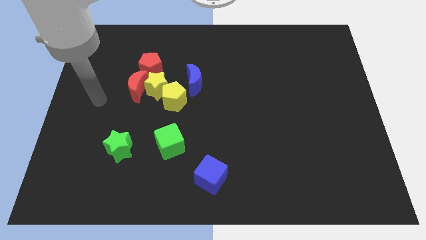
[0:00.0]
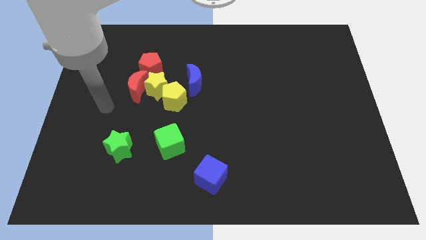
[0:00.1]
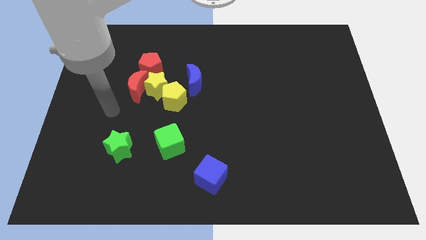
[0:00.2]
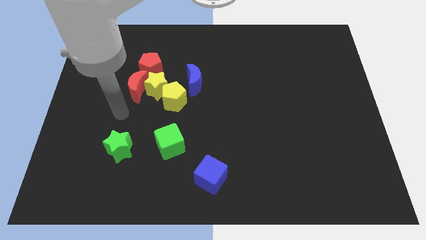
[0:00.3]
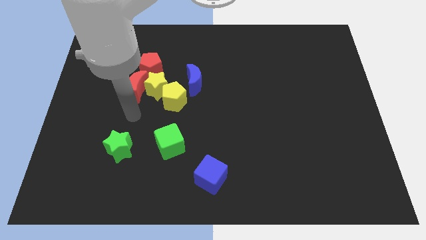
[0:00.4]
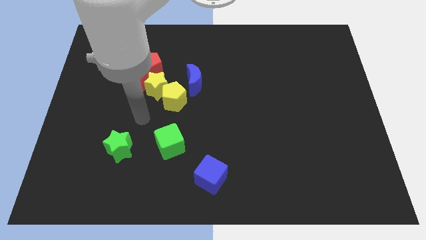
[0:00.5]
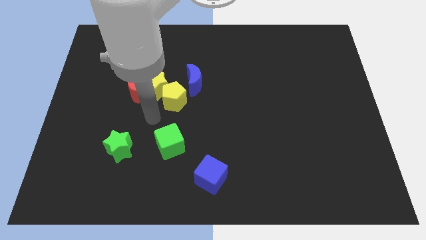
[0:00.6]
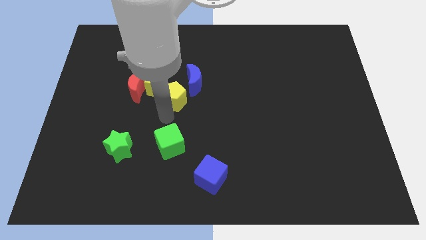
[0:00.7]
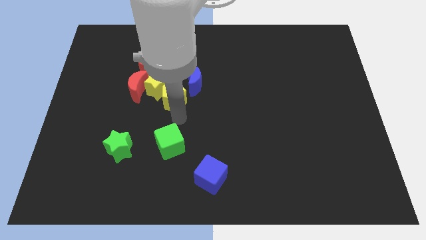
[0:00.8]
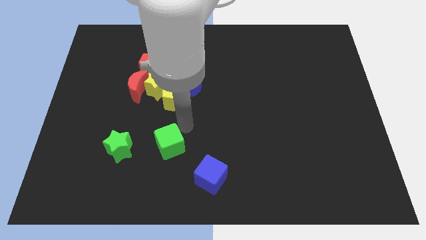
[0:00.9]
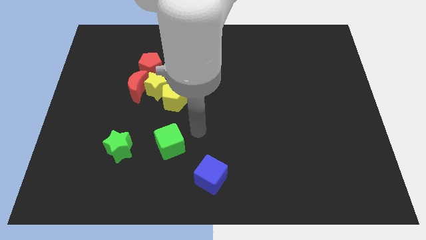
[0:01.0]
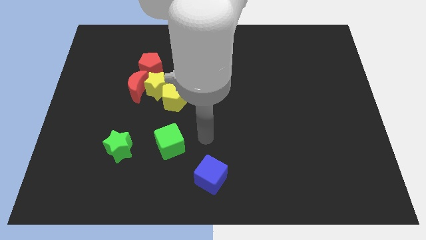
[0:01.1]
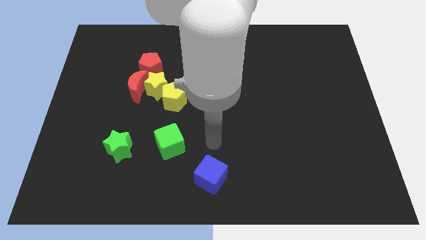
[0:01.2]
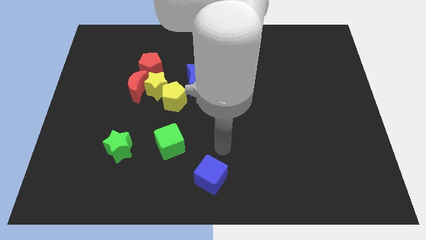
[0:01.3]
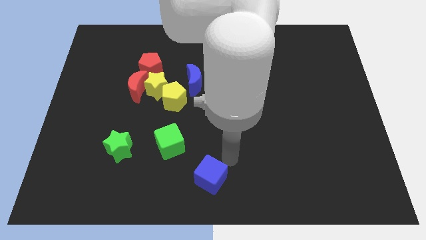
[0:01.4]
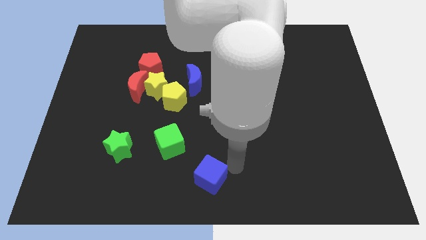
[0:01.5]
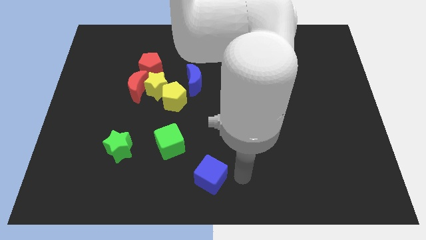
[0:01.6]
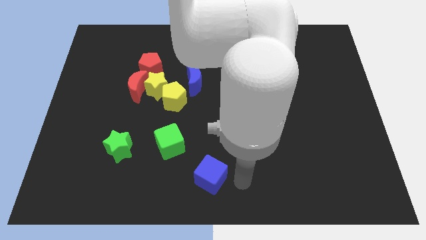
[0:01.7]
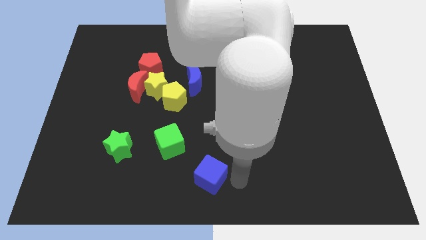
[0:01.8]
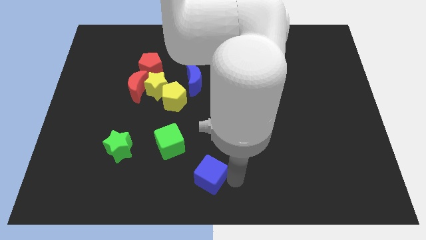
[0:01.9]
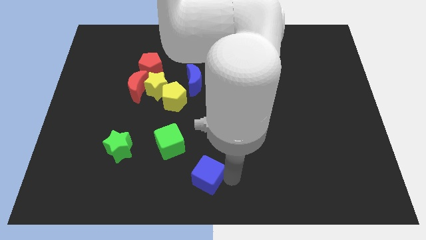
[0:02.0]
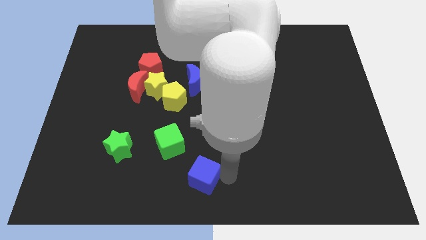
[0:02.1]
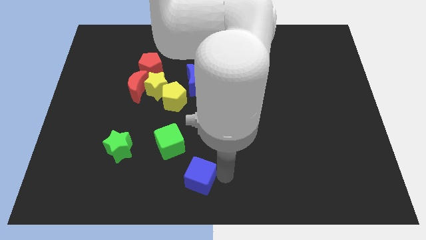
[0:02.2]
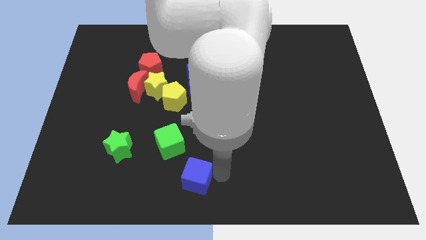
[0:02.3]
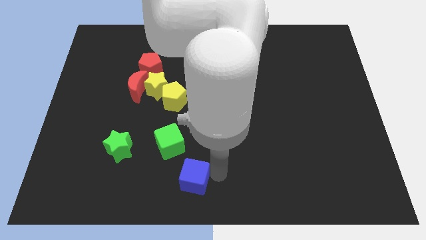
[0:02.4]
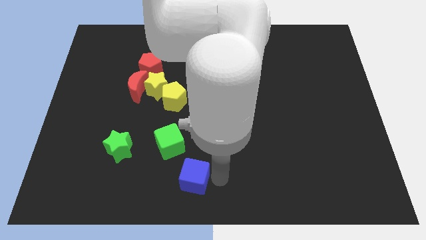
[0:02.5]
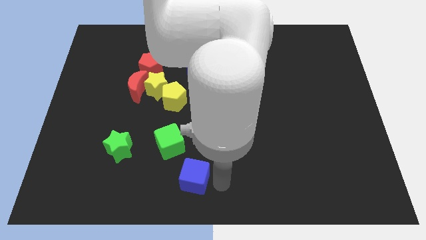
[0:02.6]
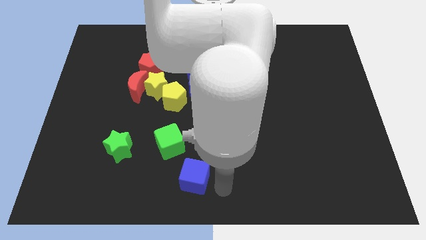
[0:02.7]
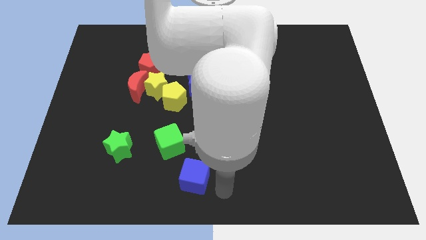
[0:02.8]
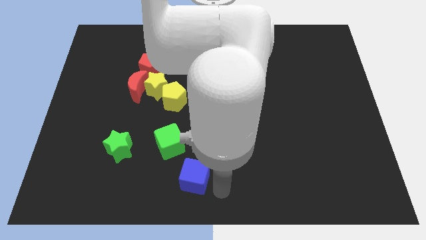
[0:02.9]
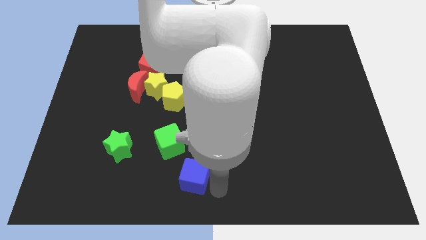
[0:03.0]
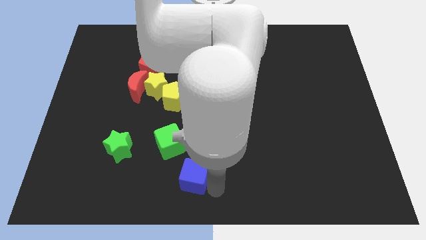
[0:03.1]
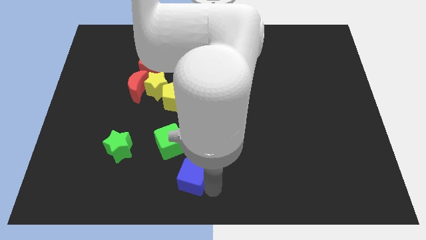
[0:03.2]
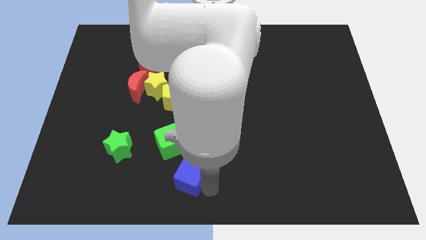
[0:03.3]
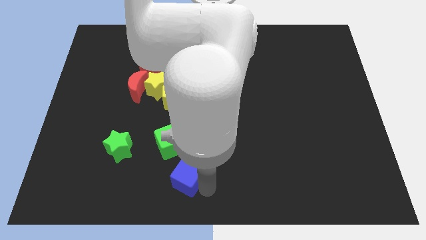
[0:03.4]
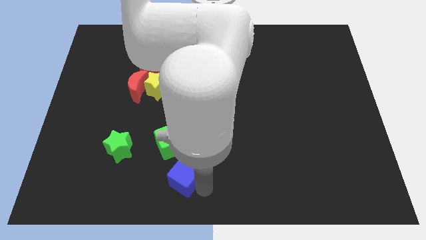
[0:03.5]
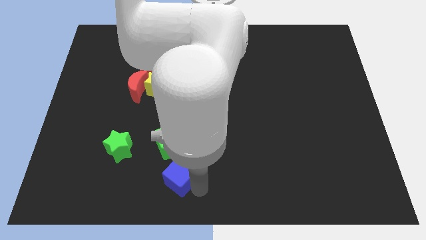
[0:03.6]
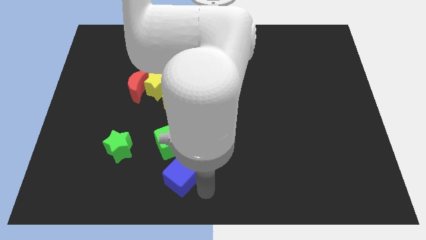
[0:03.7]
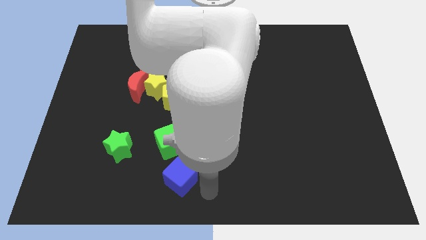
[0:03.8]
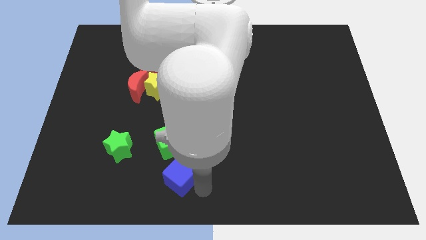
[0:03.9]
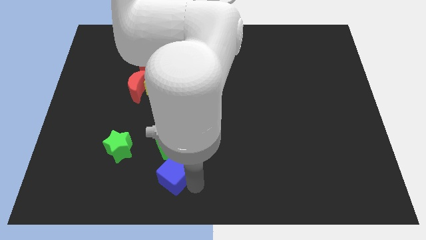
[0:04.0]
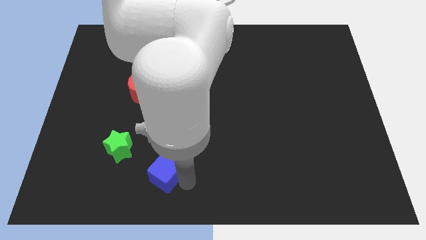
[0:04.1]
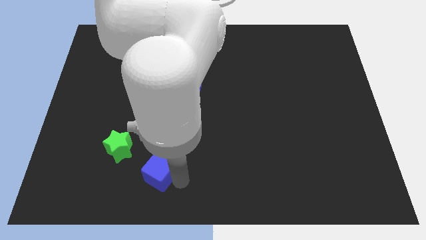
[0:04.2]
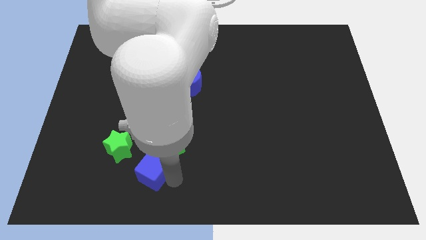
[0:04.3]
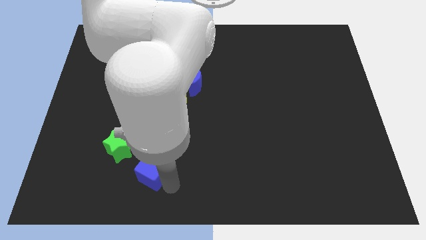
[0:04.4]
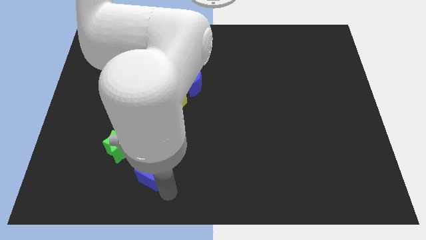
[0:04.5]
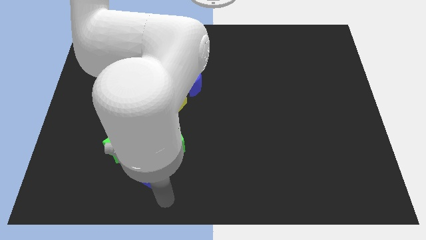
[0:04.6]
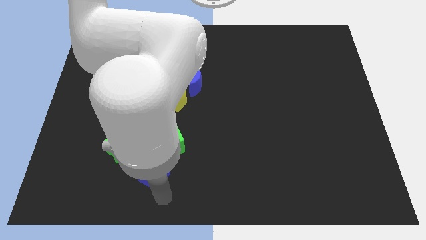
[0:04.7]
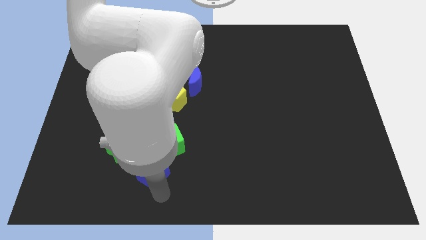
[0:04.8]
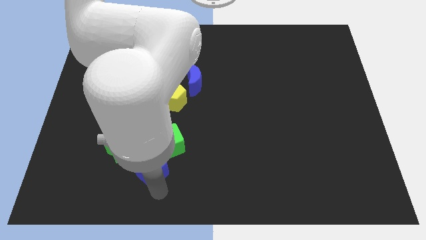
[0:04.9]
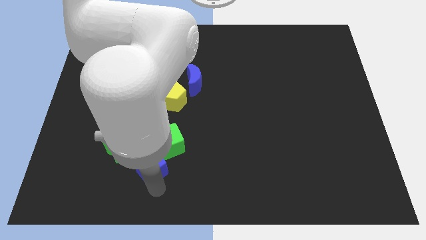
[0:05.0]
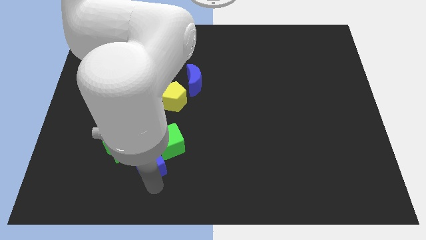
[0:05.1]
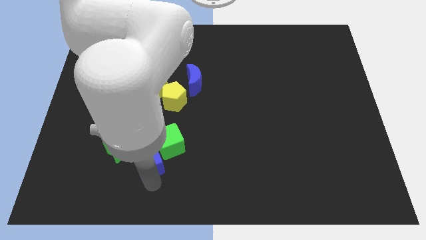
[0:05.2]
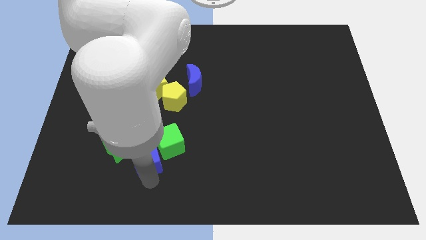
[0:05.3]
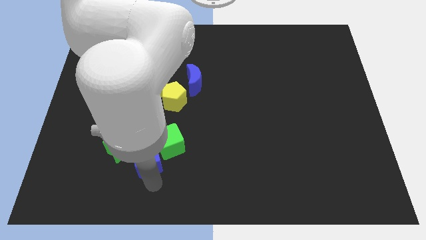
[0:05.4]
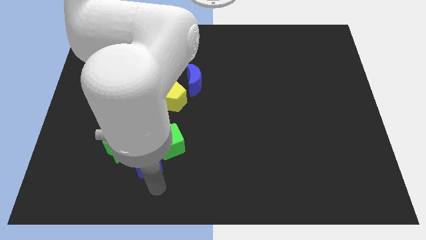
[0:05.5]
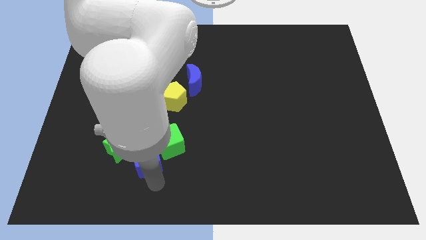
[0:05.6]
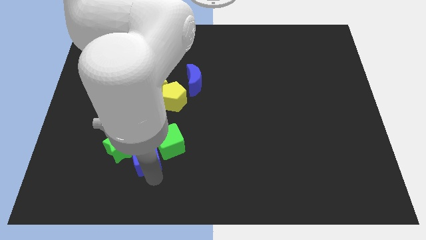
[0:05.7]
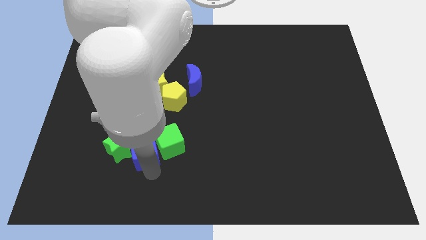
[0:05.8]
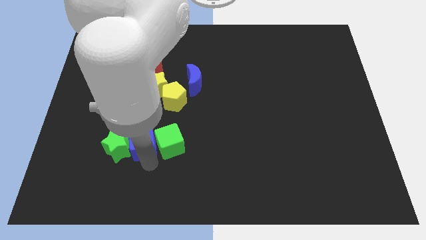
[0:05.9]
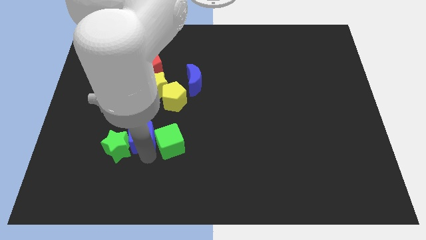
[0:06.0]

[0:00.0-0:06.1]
slide the blue cube to the bottom side of the red moon

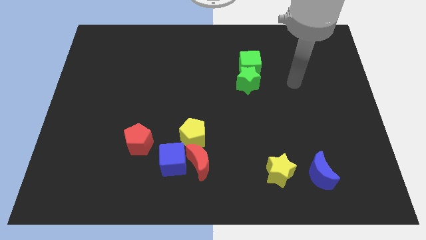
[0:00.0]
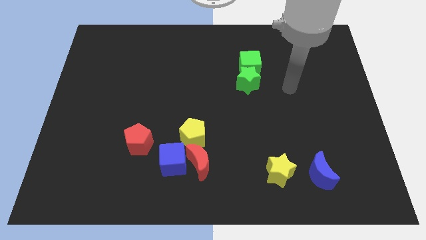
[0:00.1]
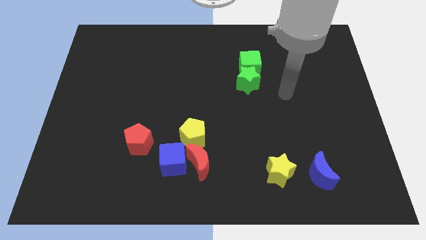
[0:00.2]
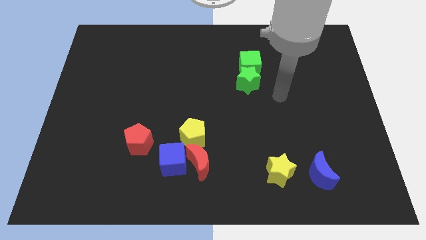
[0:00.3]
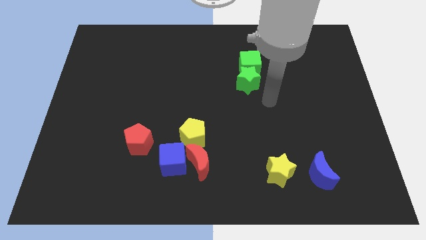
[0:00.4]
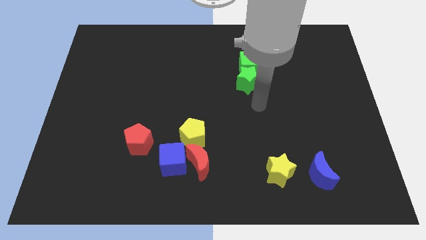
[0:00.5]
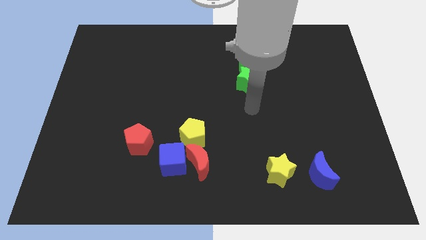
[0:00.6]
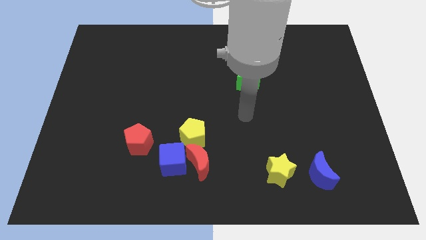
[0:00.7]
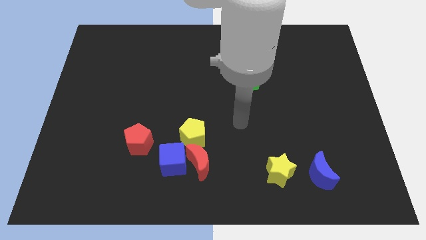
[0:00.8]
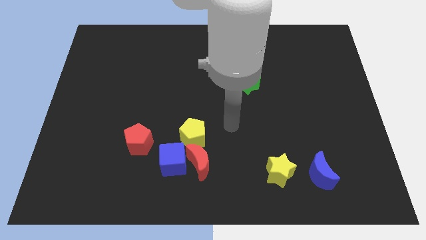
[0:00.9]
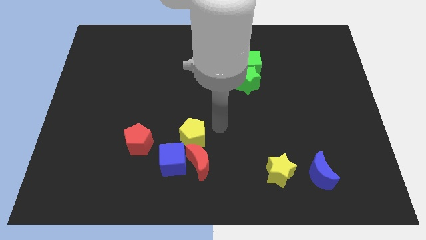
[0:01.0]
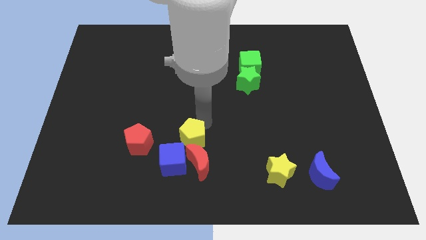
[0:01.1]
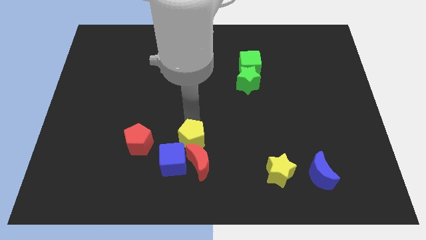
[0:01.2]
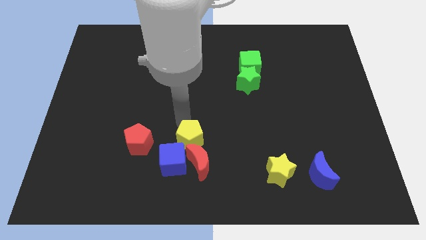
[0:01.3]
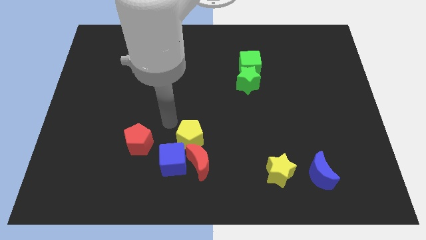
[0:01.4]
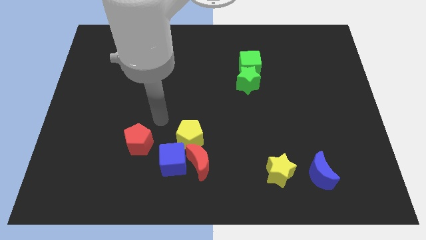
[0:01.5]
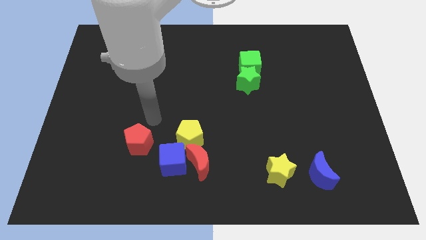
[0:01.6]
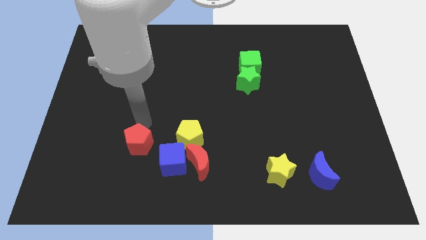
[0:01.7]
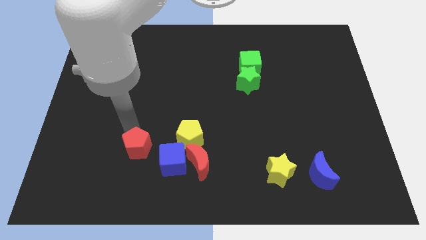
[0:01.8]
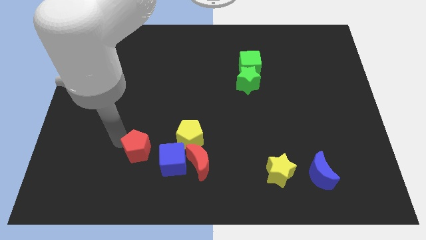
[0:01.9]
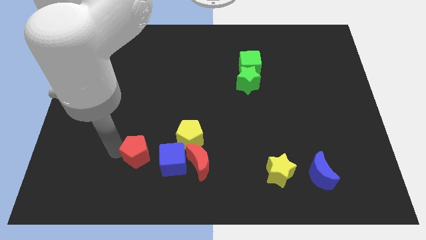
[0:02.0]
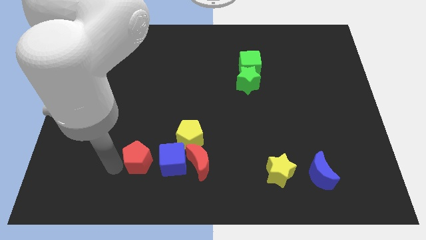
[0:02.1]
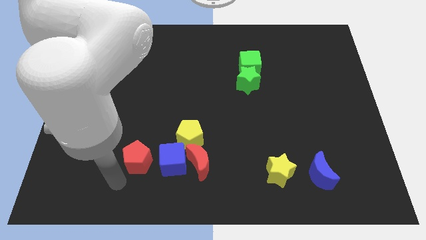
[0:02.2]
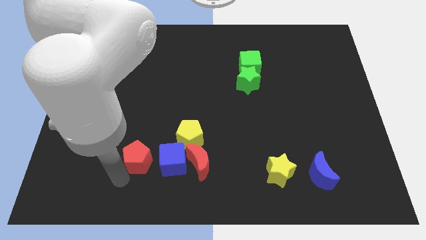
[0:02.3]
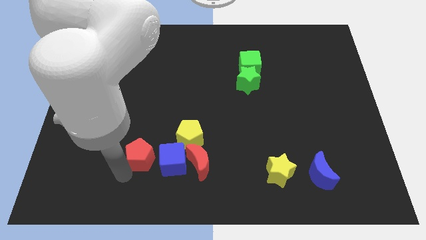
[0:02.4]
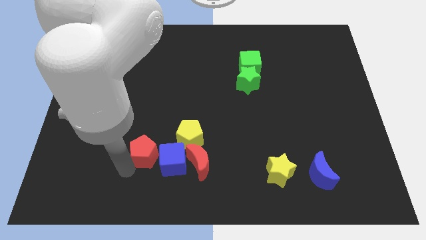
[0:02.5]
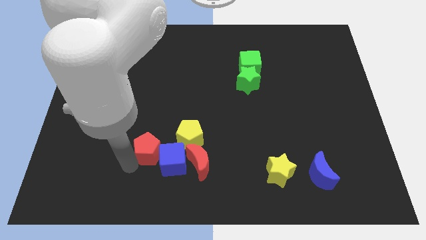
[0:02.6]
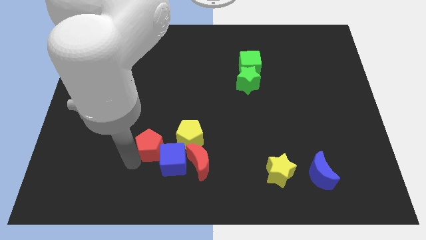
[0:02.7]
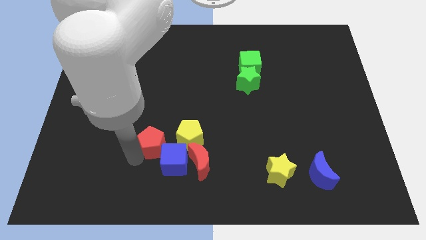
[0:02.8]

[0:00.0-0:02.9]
put the red pentagon to the top side of the blue cube
